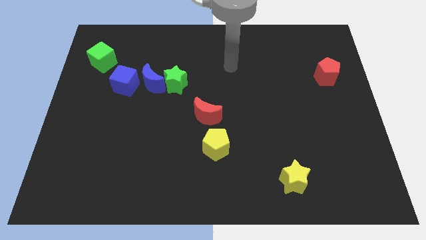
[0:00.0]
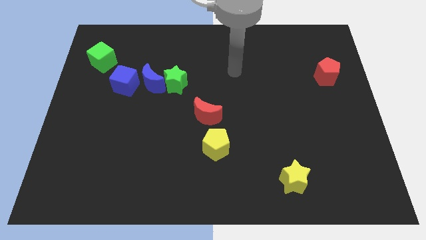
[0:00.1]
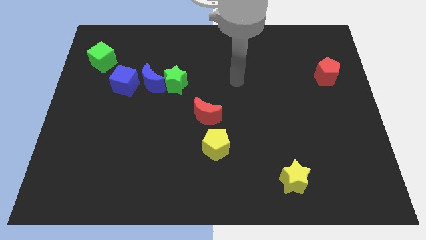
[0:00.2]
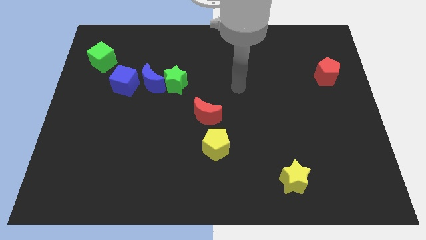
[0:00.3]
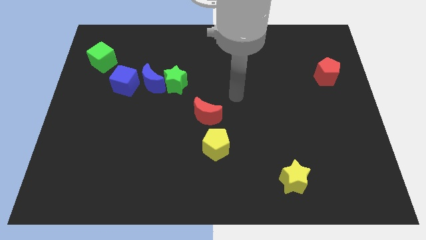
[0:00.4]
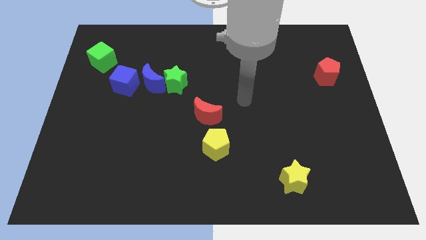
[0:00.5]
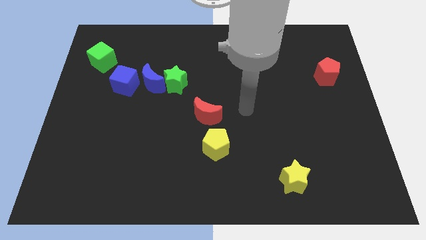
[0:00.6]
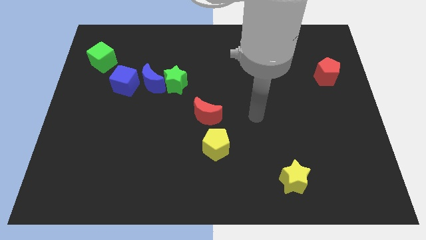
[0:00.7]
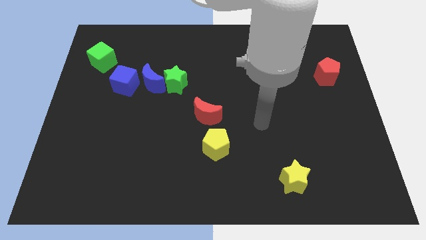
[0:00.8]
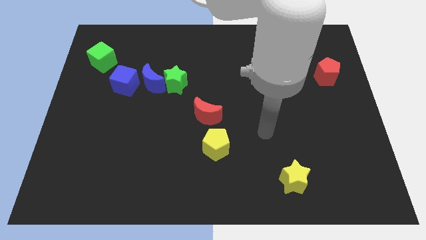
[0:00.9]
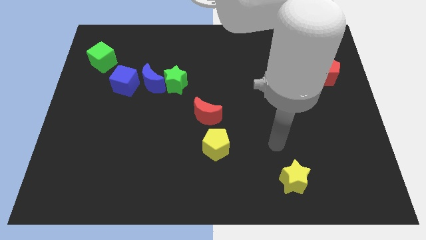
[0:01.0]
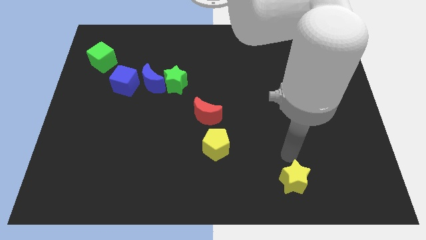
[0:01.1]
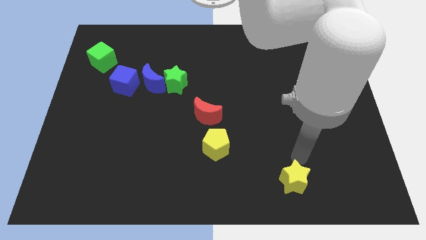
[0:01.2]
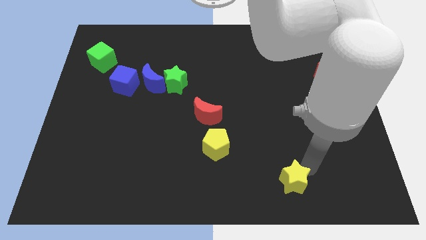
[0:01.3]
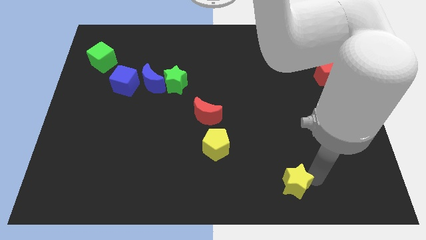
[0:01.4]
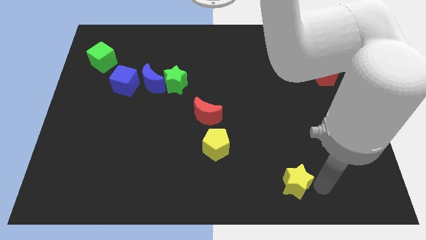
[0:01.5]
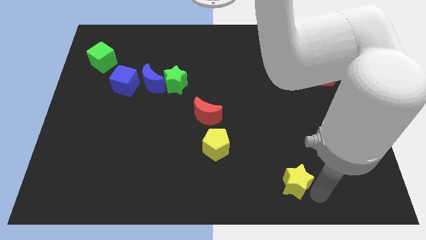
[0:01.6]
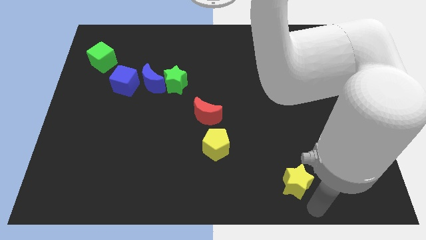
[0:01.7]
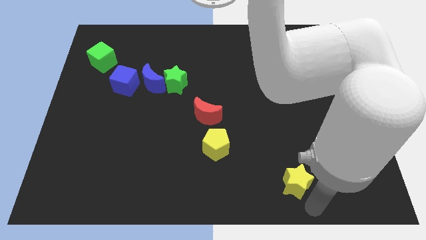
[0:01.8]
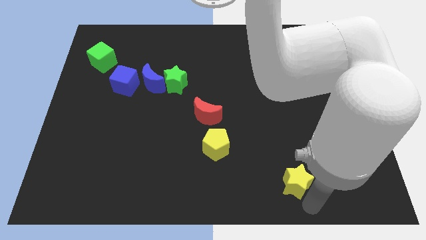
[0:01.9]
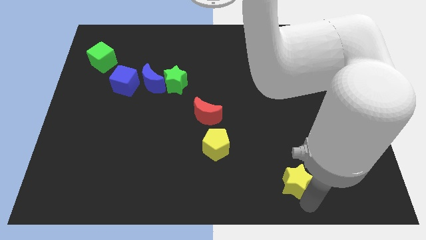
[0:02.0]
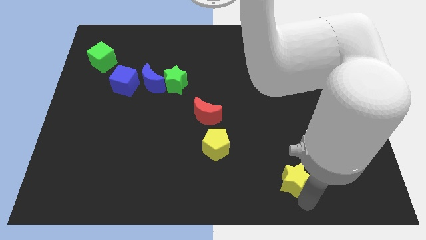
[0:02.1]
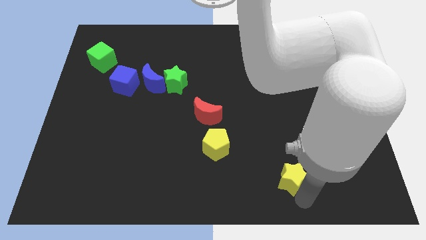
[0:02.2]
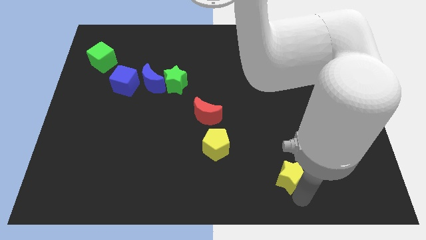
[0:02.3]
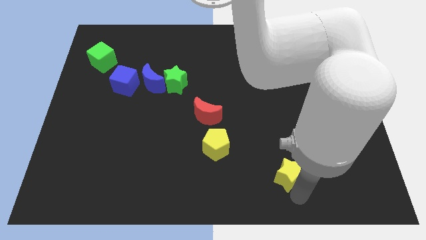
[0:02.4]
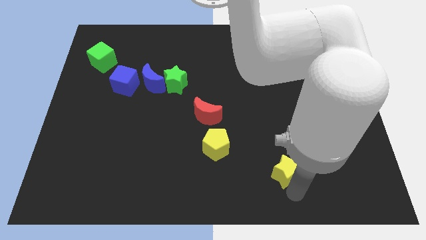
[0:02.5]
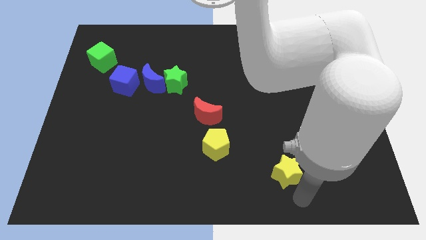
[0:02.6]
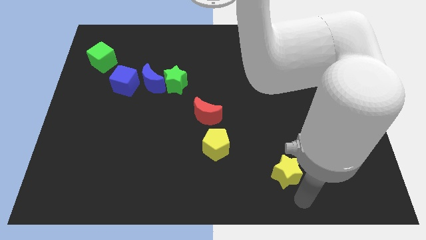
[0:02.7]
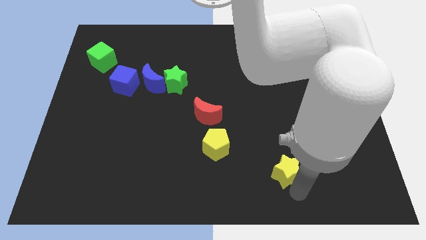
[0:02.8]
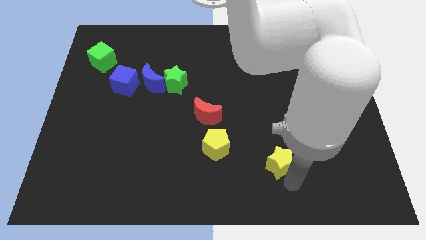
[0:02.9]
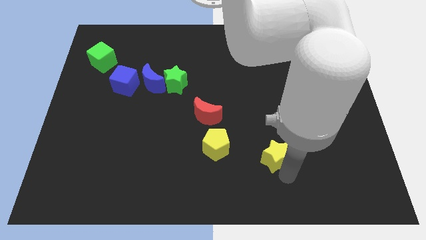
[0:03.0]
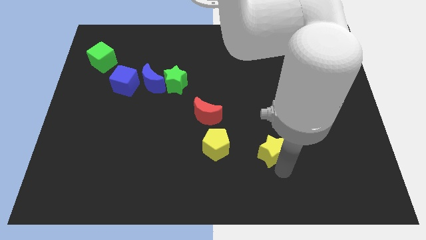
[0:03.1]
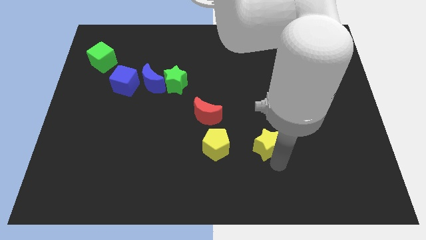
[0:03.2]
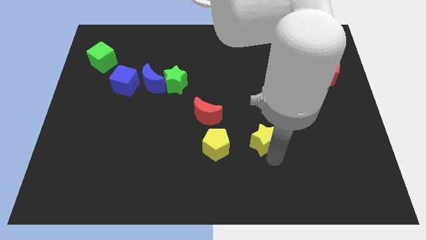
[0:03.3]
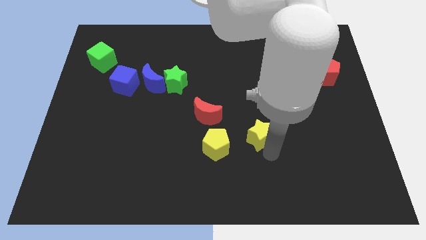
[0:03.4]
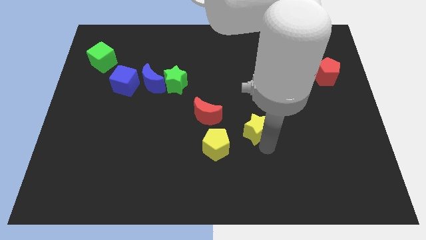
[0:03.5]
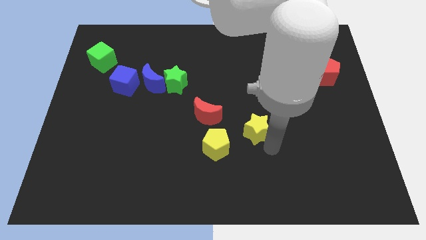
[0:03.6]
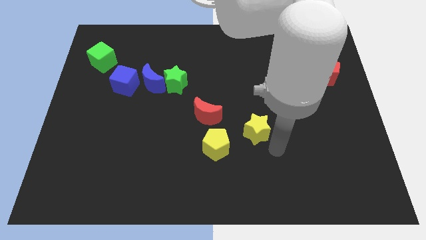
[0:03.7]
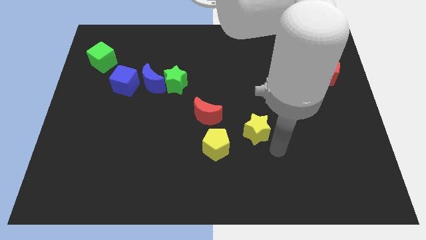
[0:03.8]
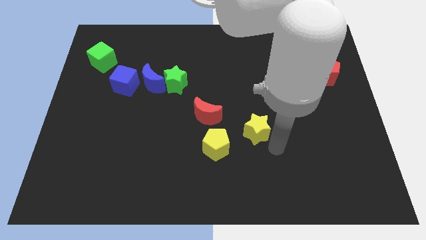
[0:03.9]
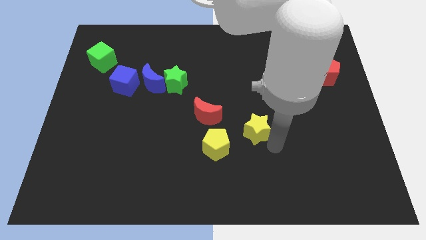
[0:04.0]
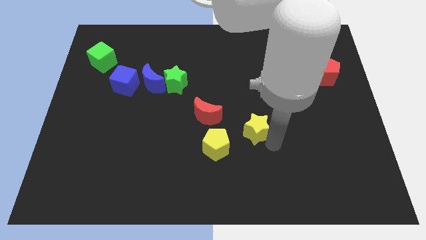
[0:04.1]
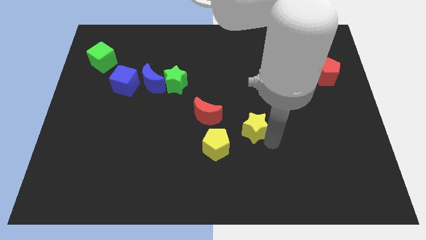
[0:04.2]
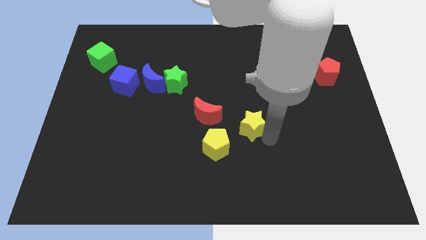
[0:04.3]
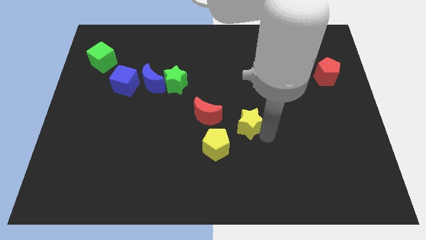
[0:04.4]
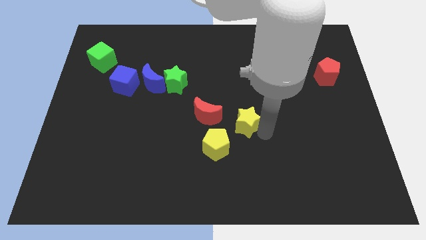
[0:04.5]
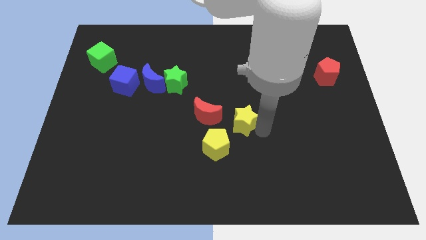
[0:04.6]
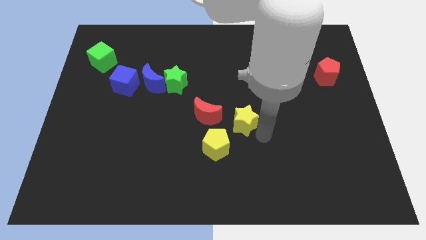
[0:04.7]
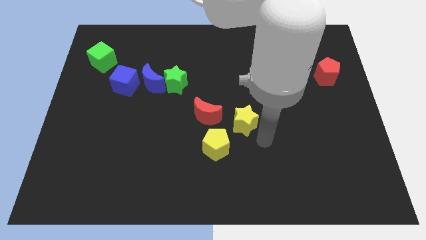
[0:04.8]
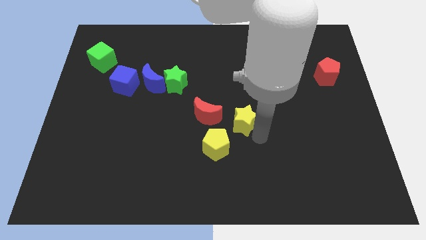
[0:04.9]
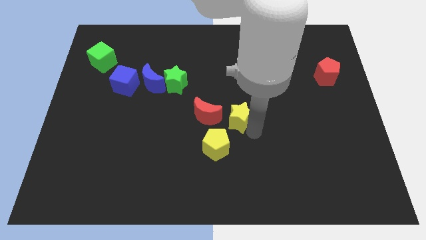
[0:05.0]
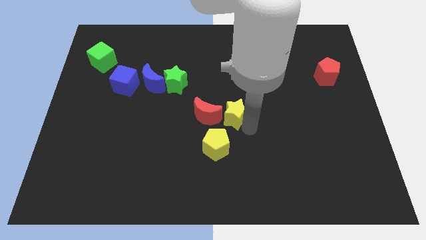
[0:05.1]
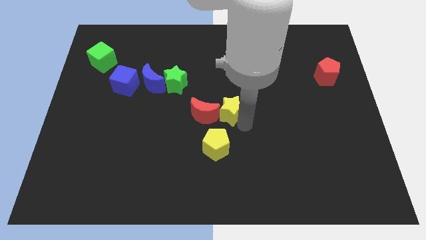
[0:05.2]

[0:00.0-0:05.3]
slide the yellow star upwards and left diagonally

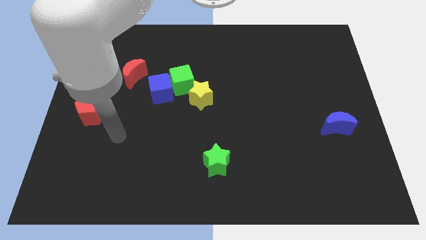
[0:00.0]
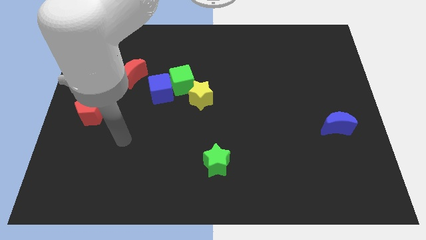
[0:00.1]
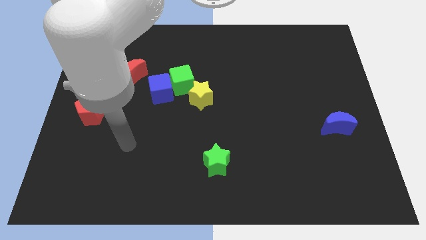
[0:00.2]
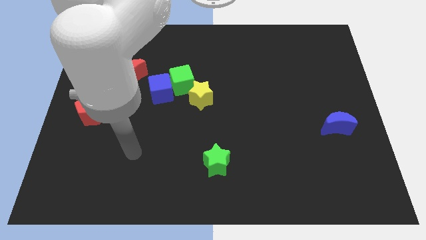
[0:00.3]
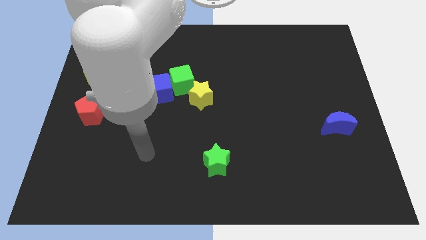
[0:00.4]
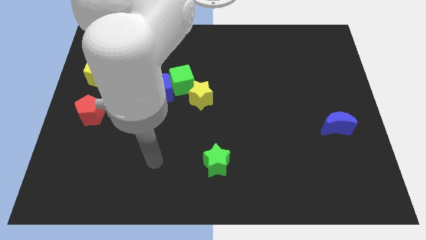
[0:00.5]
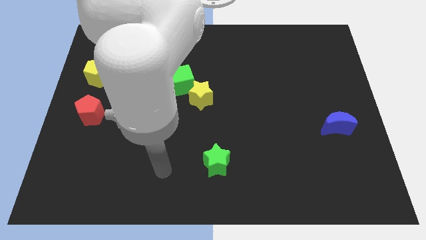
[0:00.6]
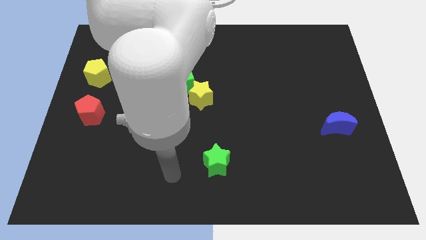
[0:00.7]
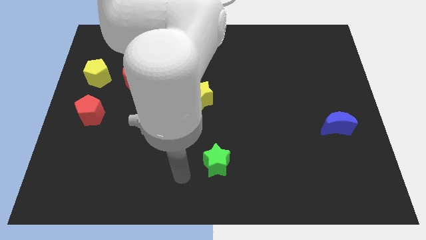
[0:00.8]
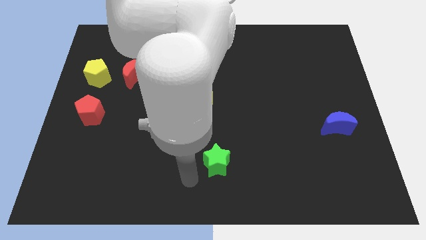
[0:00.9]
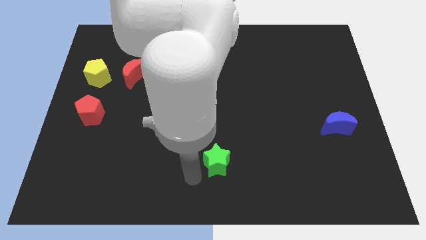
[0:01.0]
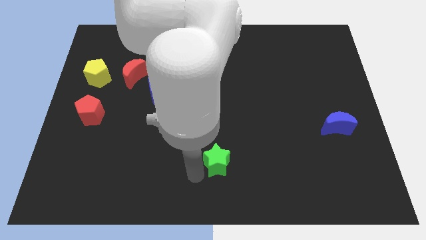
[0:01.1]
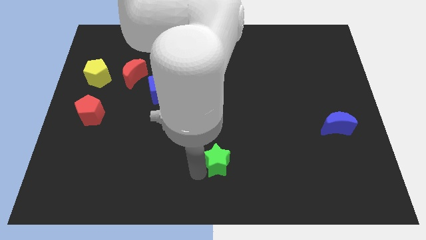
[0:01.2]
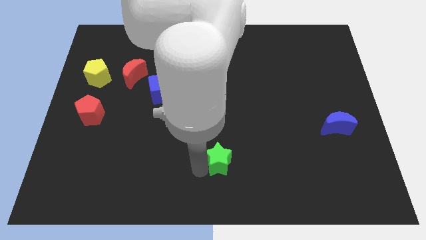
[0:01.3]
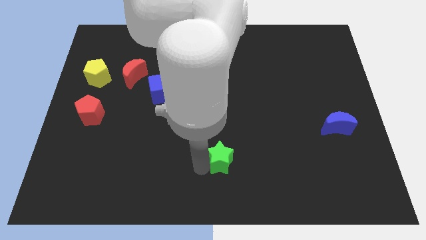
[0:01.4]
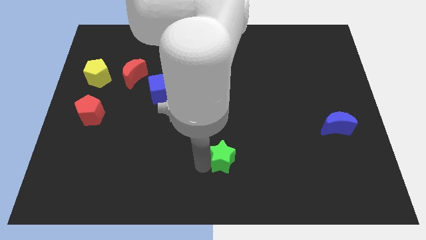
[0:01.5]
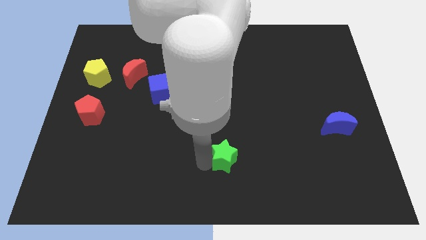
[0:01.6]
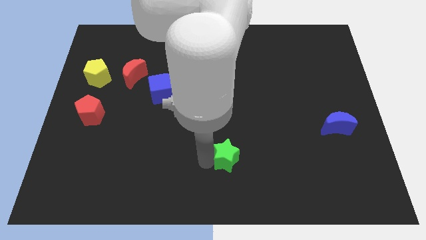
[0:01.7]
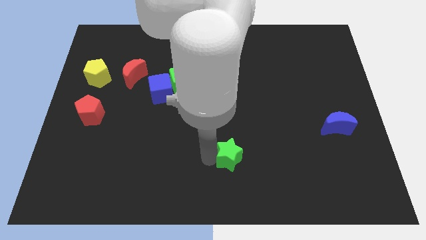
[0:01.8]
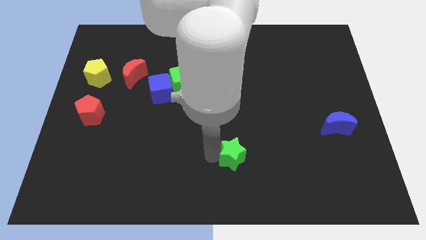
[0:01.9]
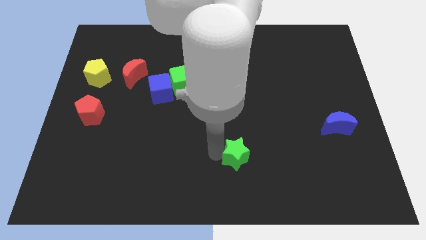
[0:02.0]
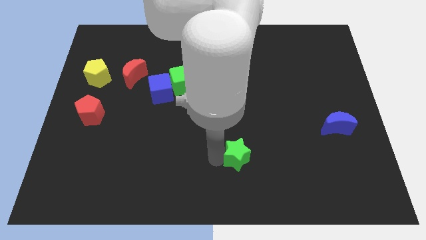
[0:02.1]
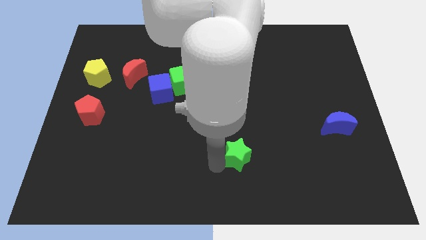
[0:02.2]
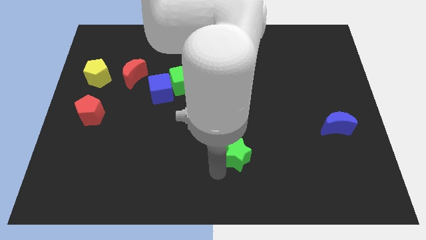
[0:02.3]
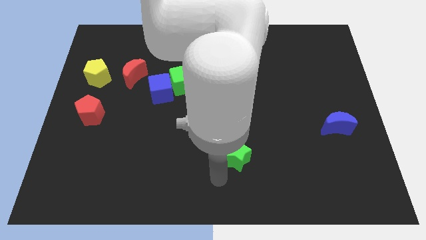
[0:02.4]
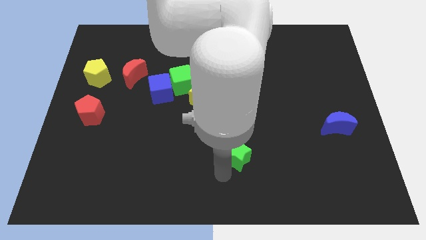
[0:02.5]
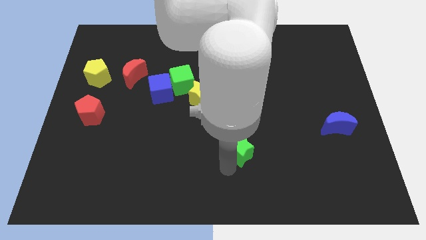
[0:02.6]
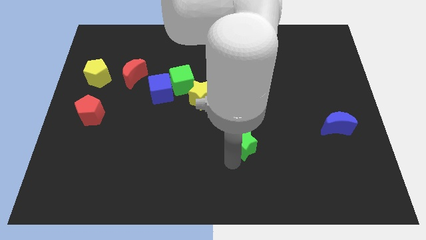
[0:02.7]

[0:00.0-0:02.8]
slightly move the green star up and right
